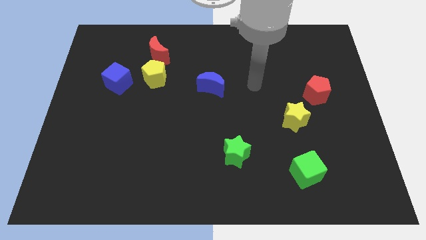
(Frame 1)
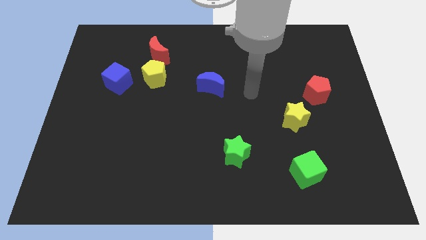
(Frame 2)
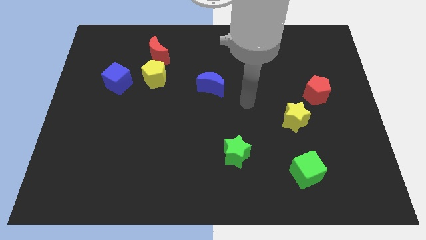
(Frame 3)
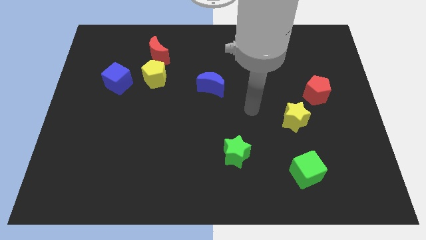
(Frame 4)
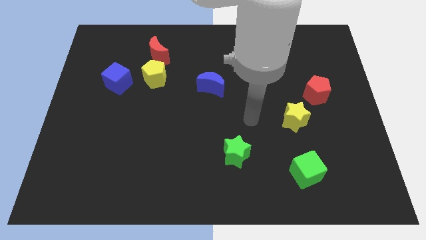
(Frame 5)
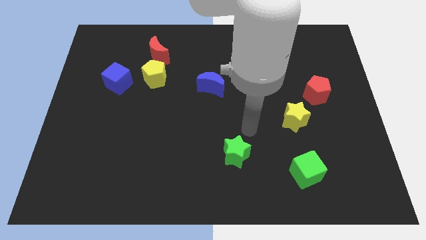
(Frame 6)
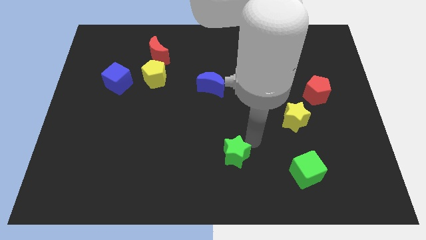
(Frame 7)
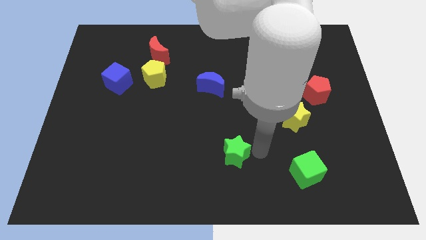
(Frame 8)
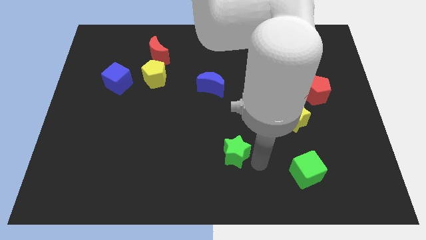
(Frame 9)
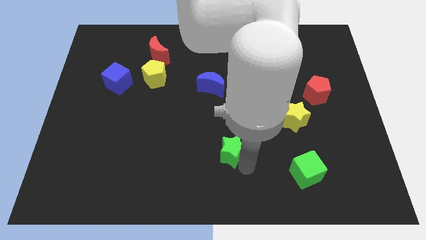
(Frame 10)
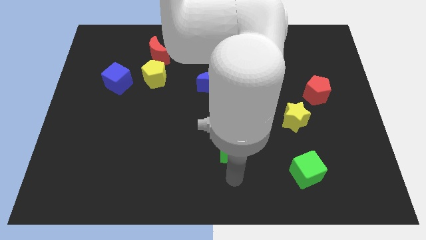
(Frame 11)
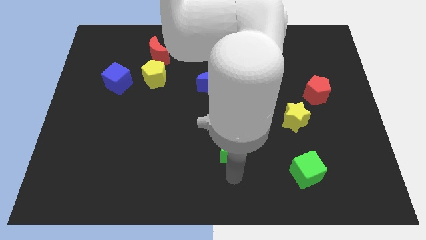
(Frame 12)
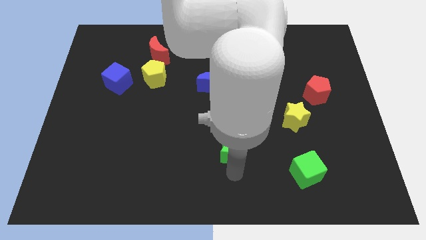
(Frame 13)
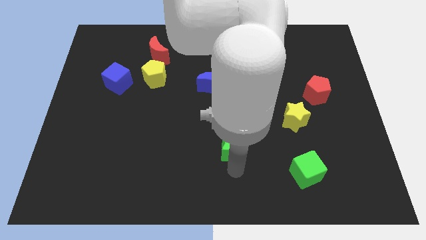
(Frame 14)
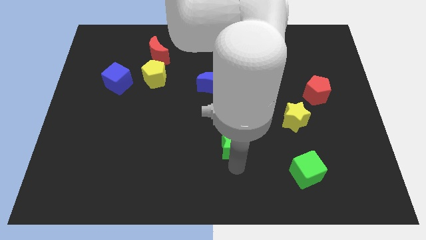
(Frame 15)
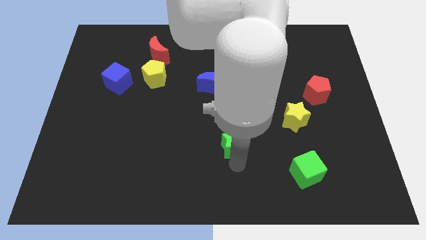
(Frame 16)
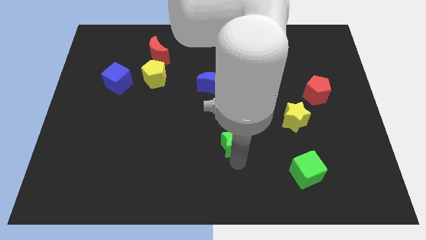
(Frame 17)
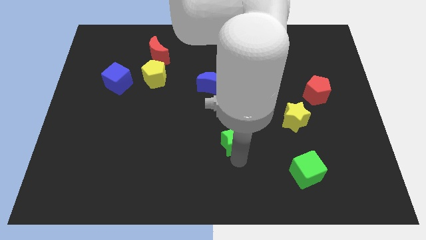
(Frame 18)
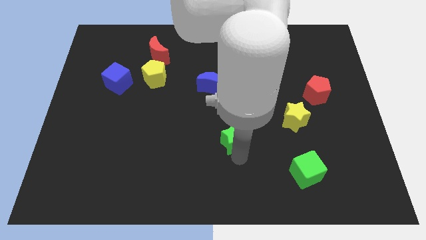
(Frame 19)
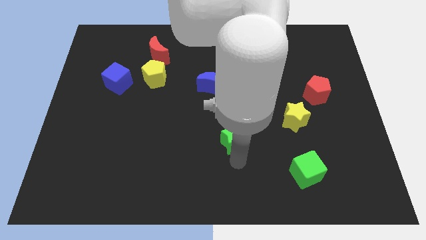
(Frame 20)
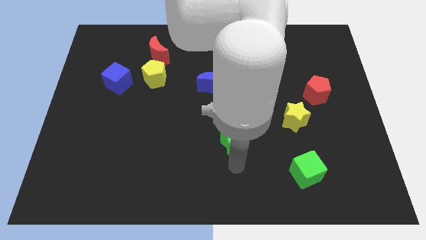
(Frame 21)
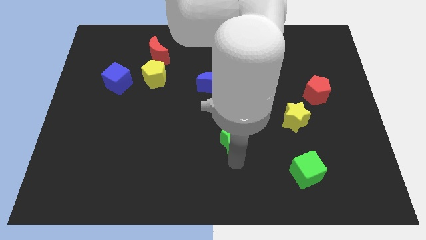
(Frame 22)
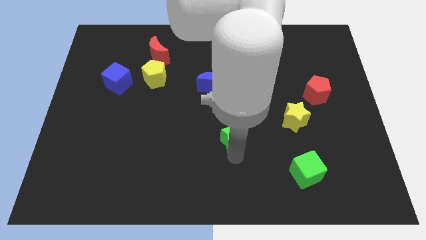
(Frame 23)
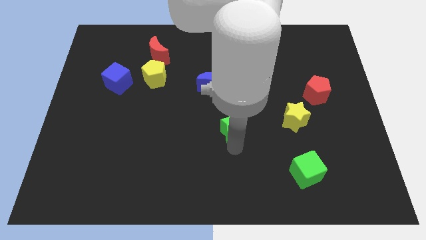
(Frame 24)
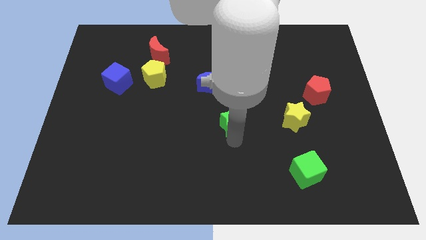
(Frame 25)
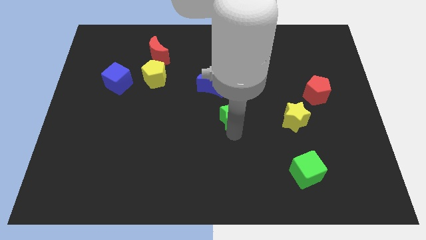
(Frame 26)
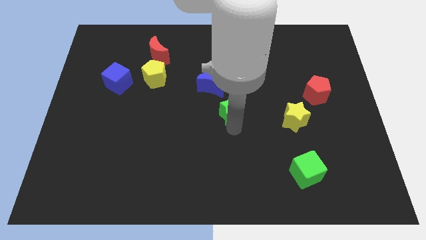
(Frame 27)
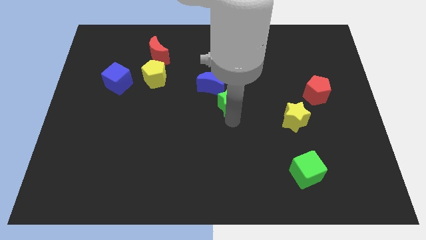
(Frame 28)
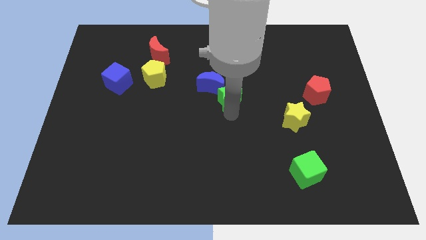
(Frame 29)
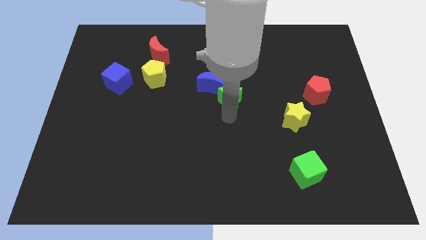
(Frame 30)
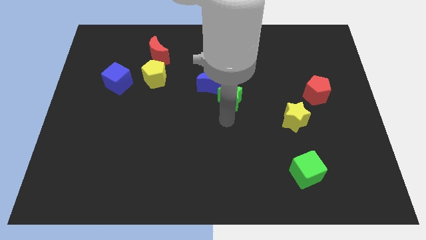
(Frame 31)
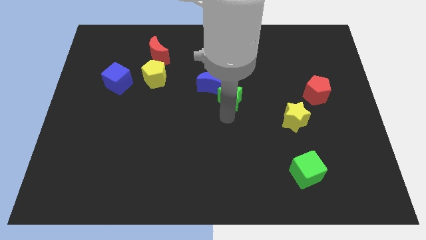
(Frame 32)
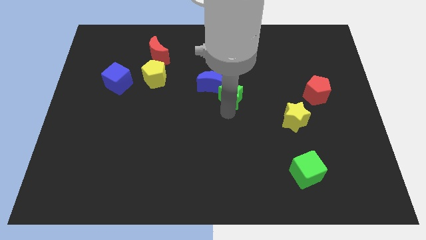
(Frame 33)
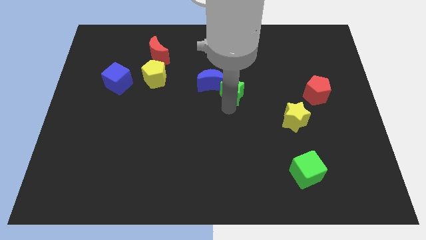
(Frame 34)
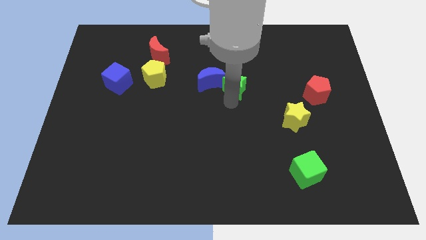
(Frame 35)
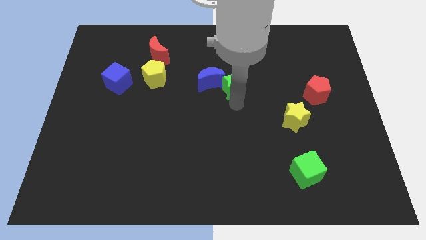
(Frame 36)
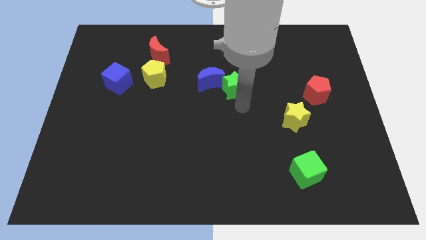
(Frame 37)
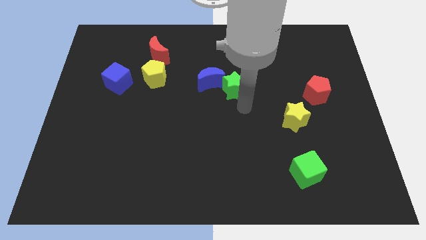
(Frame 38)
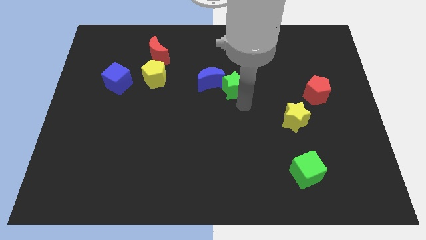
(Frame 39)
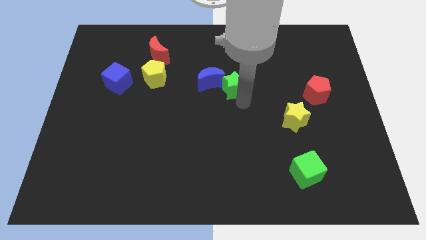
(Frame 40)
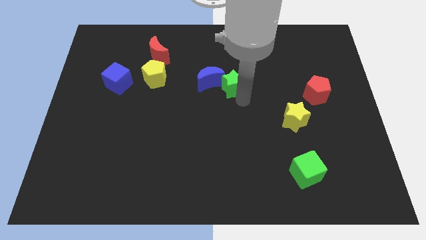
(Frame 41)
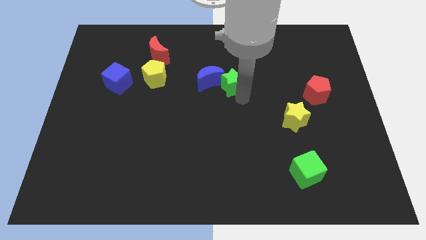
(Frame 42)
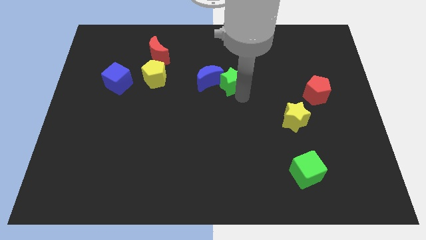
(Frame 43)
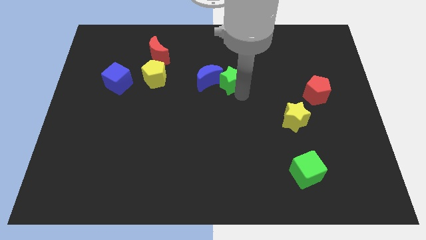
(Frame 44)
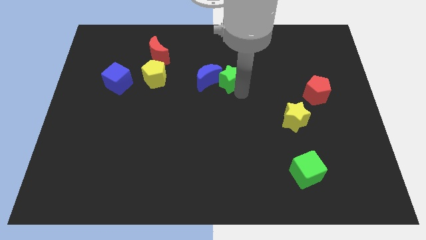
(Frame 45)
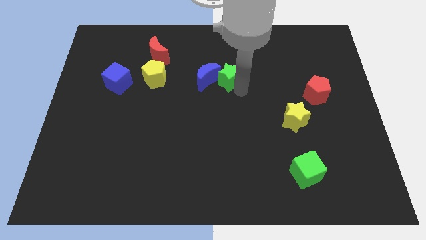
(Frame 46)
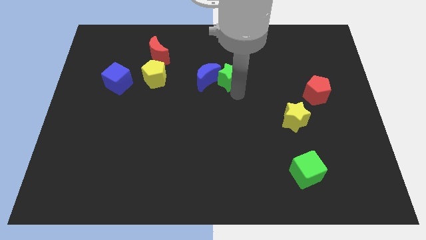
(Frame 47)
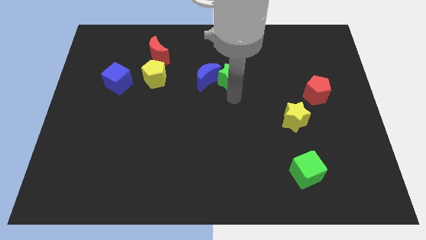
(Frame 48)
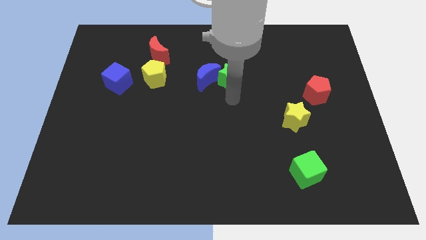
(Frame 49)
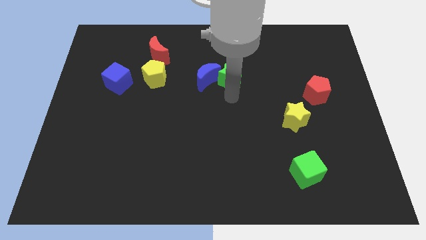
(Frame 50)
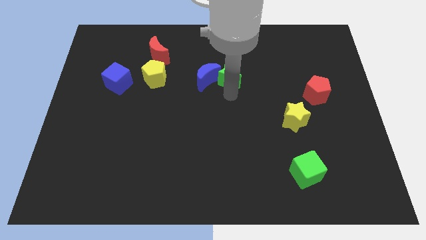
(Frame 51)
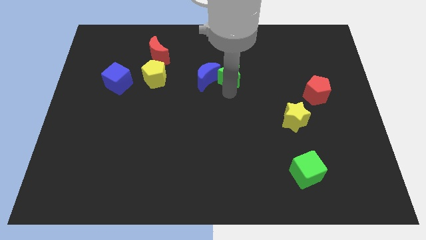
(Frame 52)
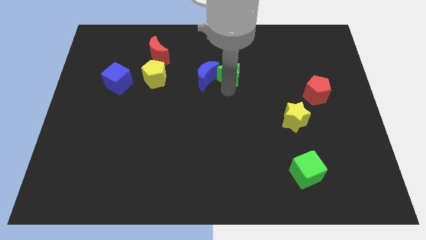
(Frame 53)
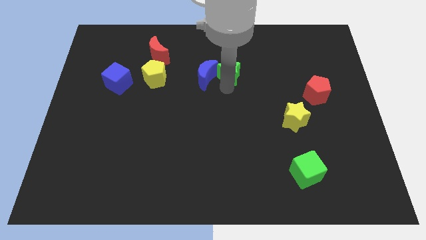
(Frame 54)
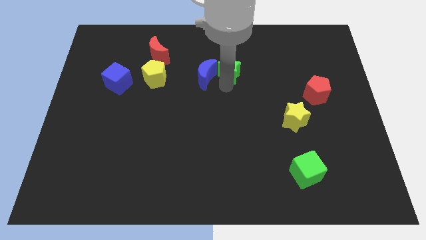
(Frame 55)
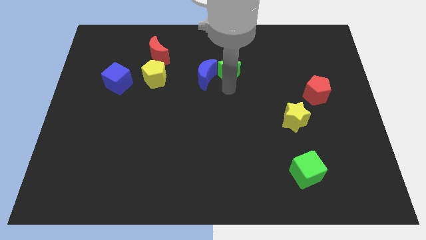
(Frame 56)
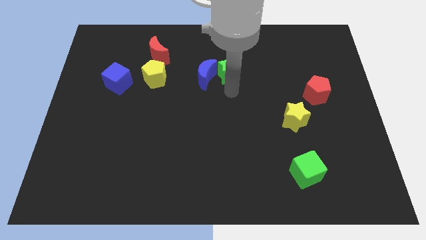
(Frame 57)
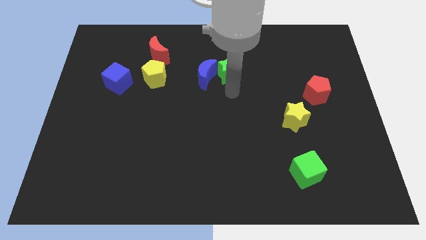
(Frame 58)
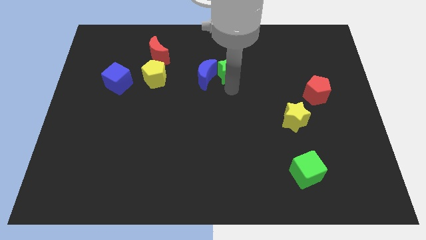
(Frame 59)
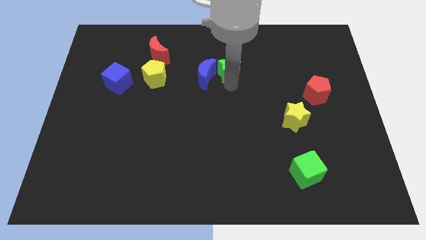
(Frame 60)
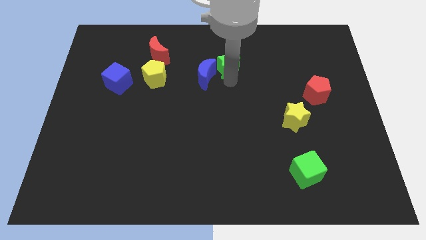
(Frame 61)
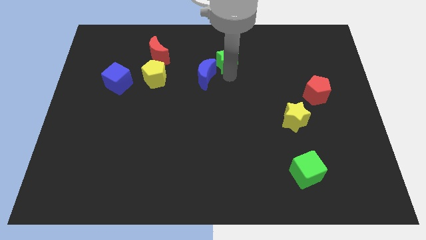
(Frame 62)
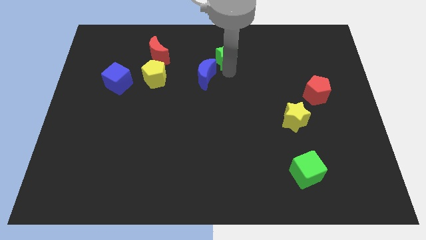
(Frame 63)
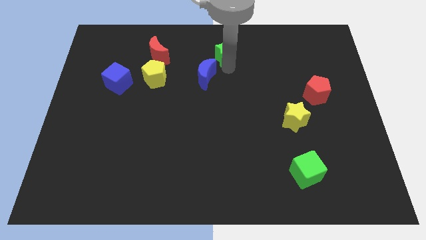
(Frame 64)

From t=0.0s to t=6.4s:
put the green star to the top
